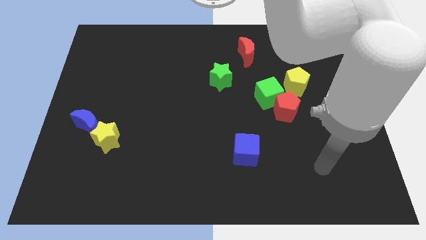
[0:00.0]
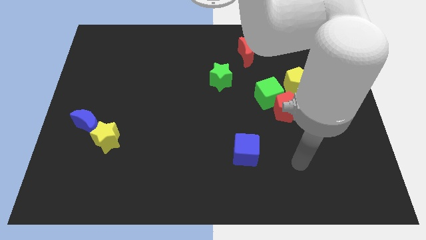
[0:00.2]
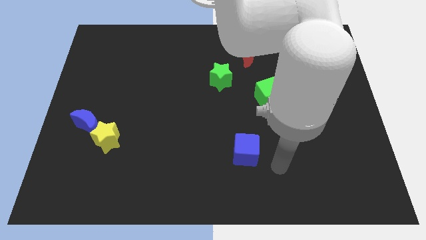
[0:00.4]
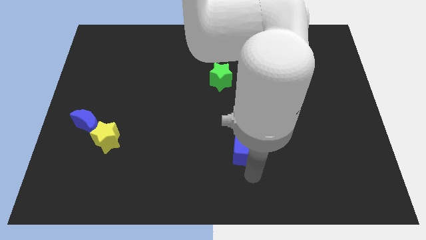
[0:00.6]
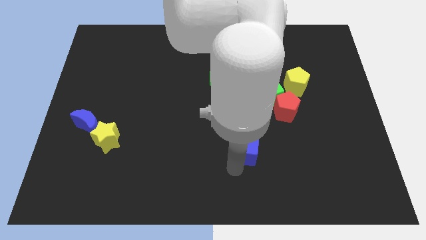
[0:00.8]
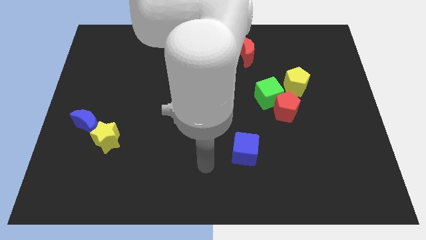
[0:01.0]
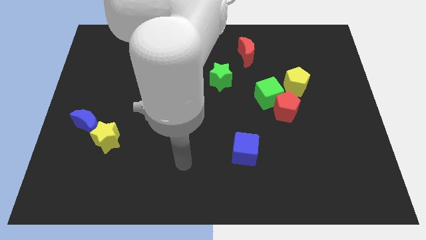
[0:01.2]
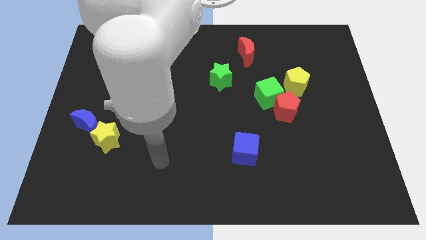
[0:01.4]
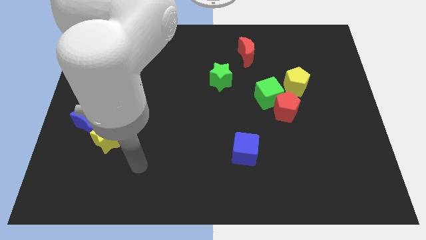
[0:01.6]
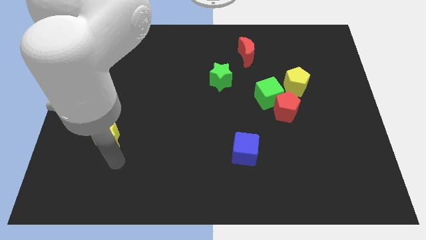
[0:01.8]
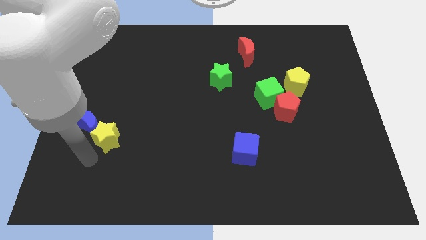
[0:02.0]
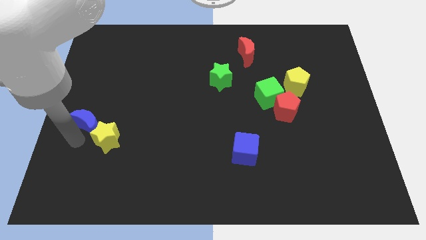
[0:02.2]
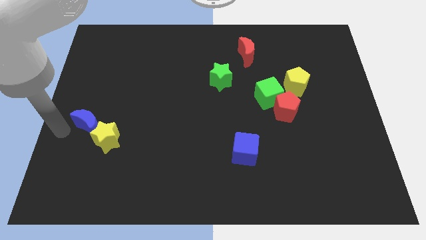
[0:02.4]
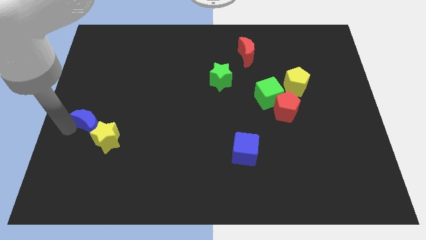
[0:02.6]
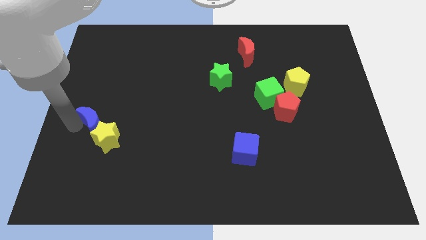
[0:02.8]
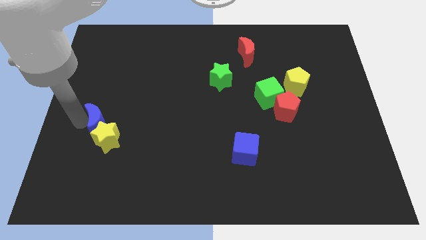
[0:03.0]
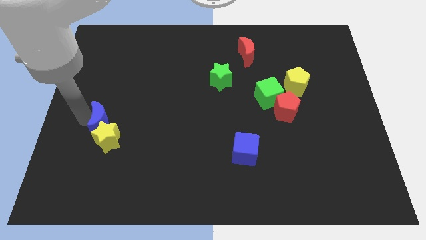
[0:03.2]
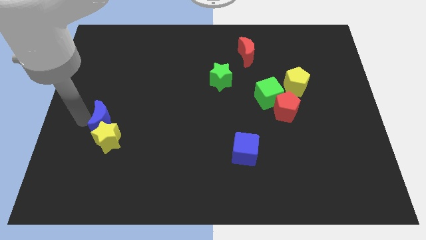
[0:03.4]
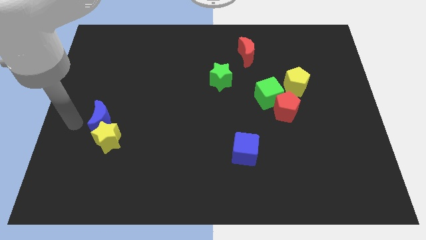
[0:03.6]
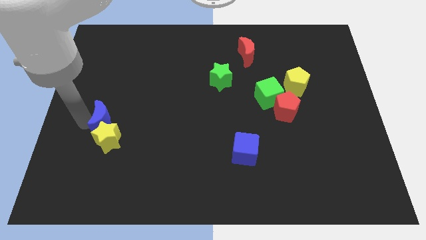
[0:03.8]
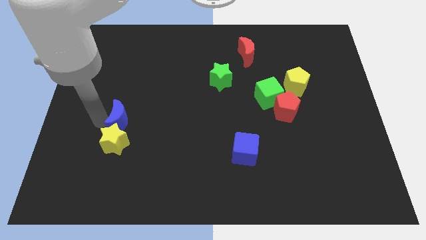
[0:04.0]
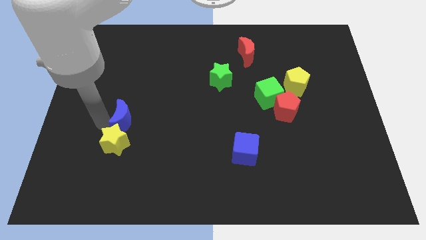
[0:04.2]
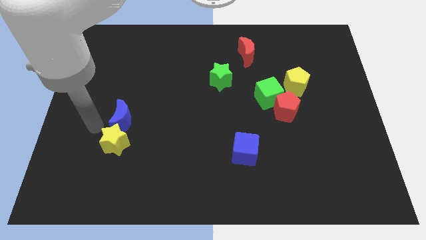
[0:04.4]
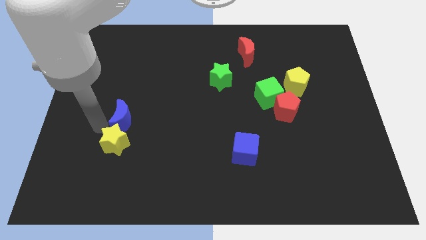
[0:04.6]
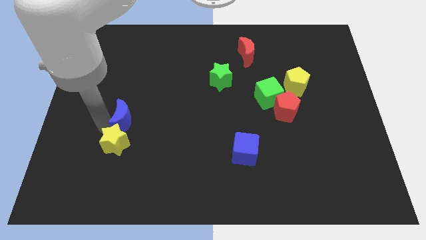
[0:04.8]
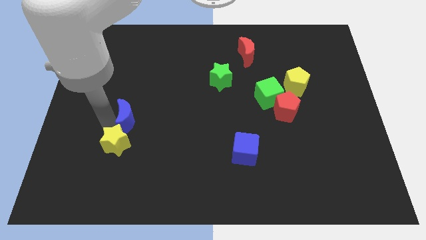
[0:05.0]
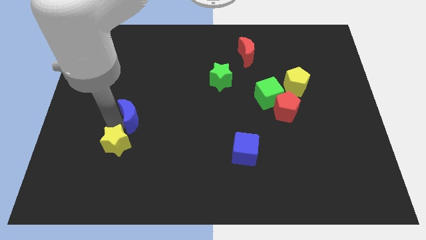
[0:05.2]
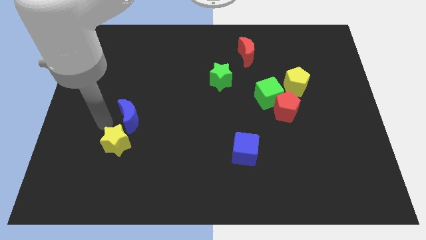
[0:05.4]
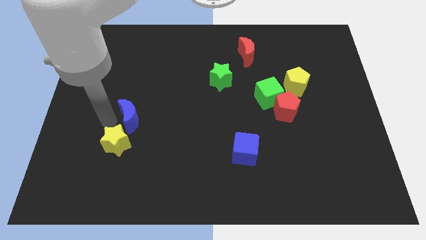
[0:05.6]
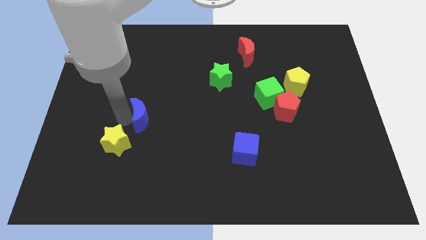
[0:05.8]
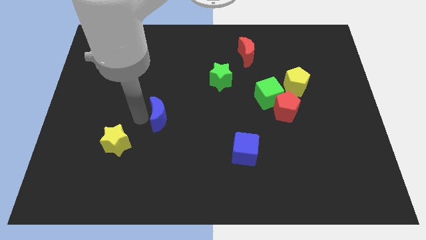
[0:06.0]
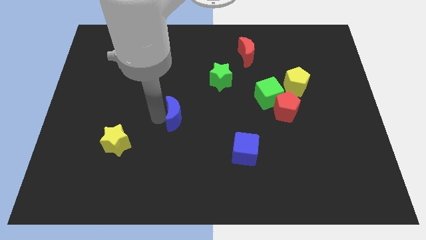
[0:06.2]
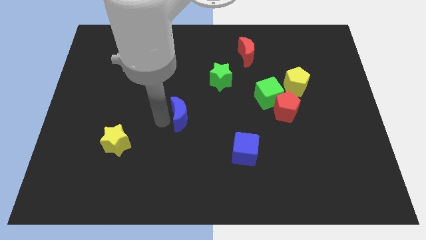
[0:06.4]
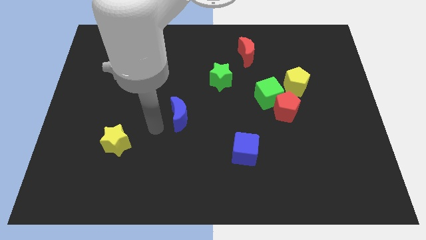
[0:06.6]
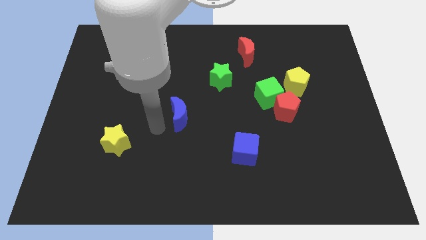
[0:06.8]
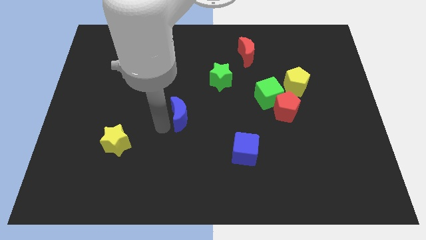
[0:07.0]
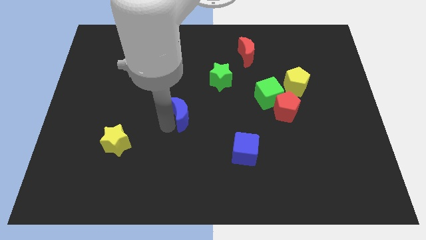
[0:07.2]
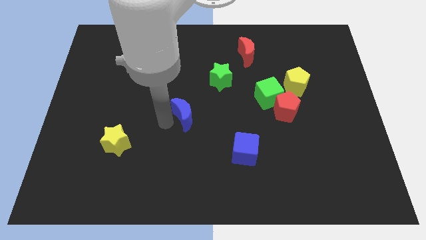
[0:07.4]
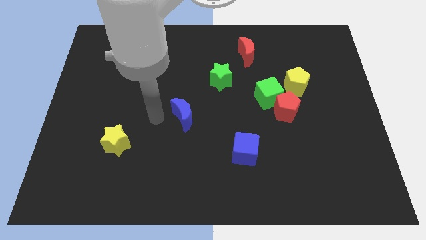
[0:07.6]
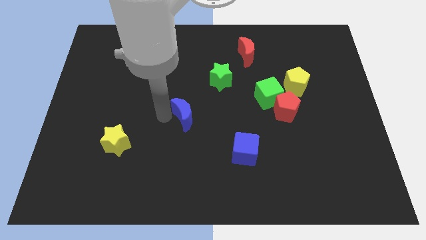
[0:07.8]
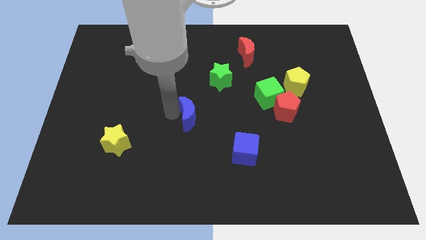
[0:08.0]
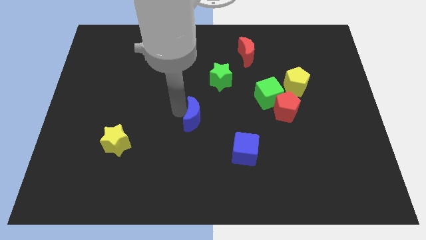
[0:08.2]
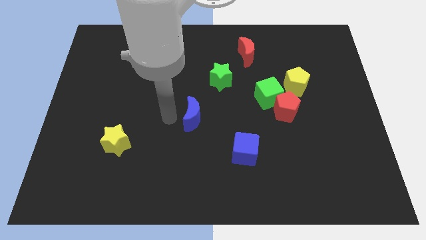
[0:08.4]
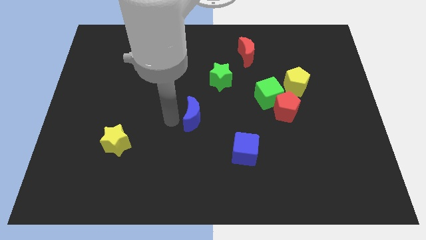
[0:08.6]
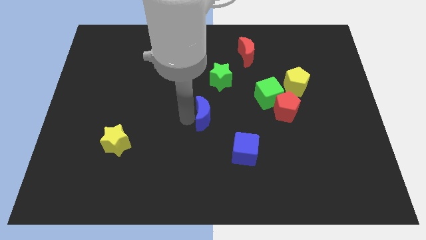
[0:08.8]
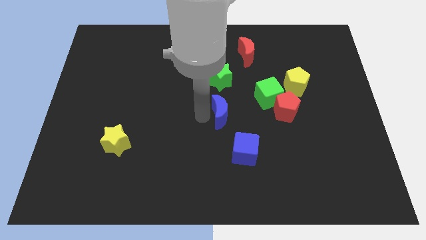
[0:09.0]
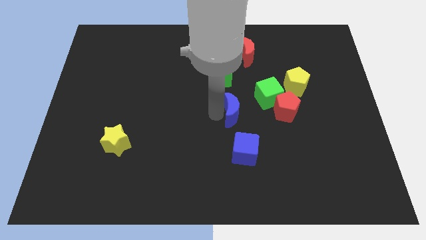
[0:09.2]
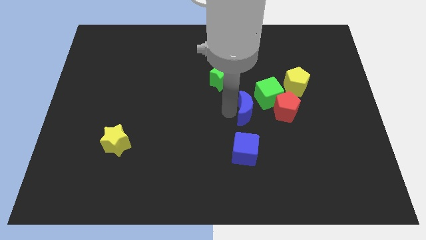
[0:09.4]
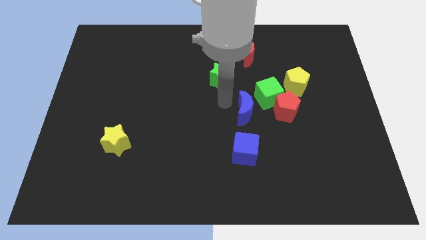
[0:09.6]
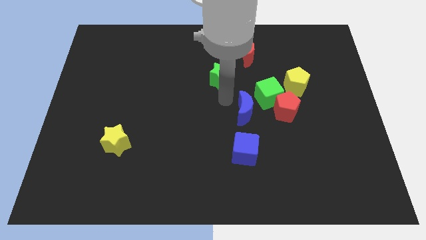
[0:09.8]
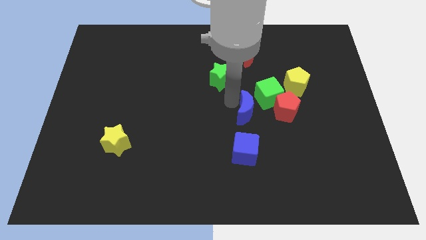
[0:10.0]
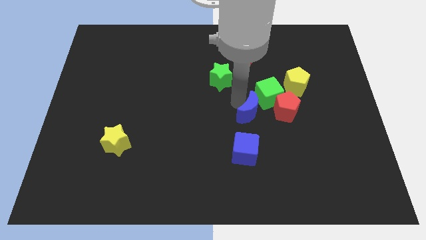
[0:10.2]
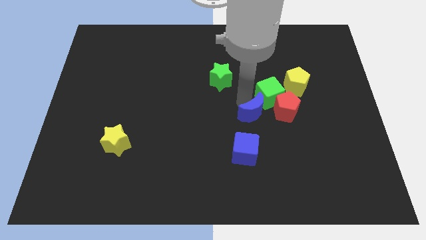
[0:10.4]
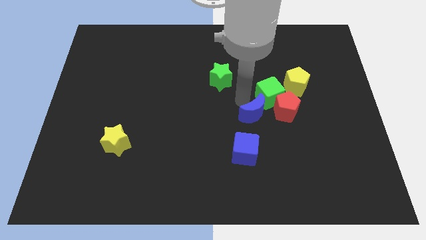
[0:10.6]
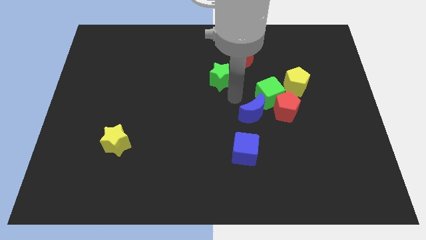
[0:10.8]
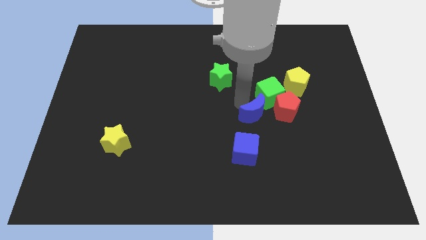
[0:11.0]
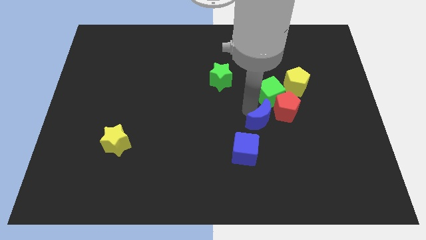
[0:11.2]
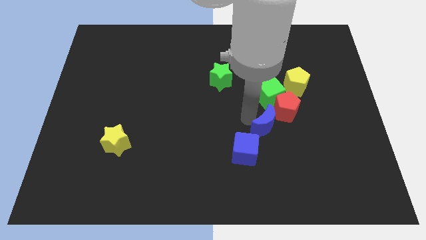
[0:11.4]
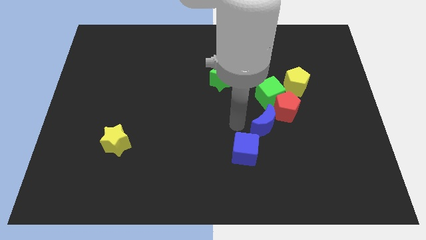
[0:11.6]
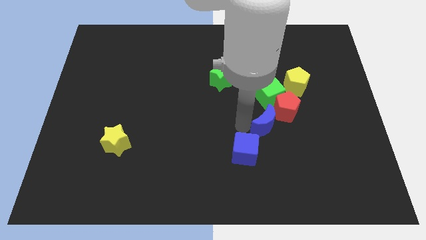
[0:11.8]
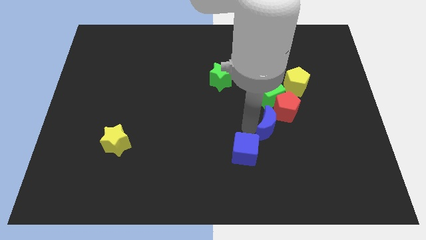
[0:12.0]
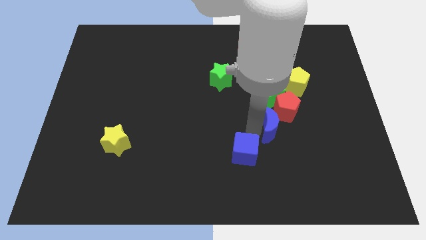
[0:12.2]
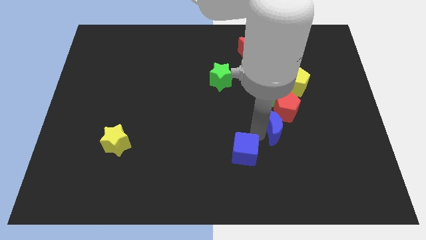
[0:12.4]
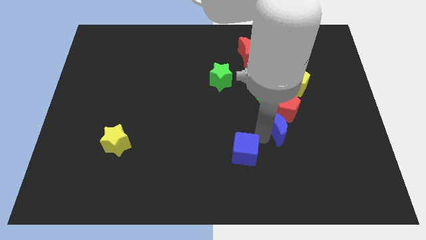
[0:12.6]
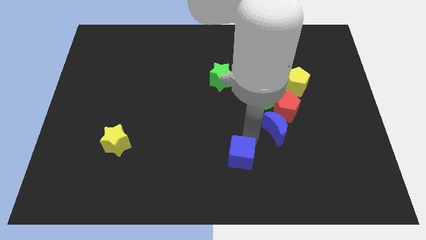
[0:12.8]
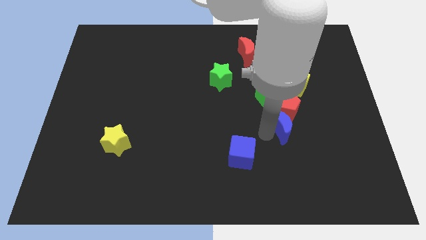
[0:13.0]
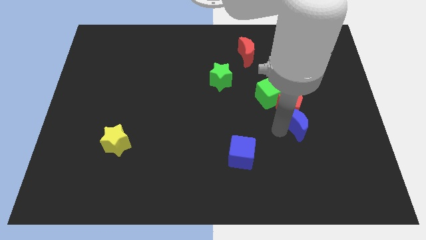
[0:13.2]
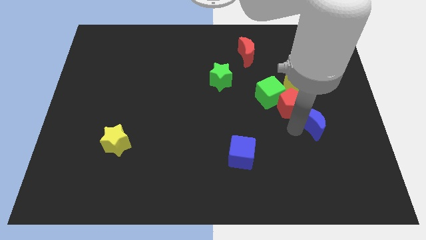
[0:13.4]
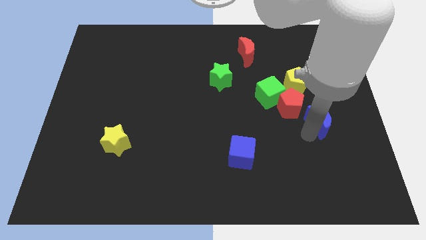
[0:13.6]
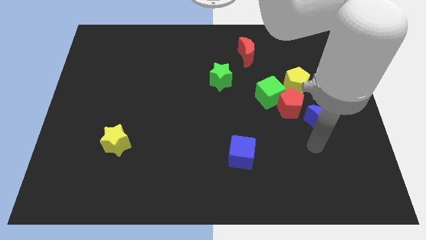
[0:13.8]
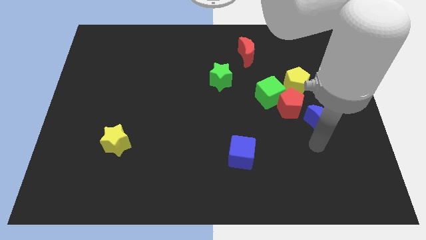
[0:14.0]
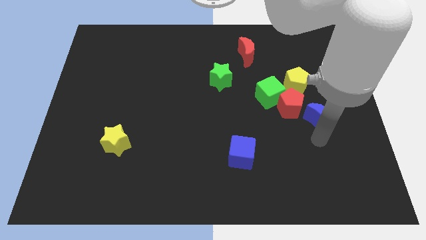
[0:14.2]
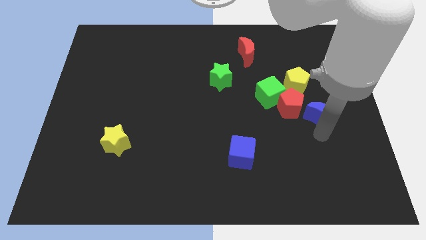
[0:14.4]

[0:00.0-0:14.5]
slide the blue moon to the bottom right of the yellow pentagon
